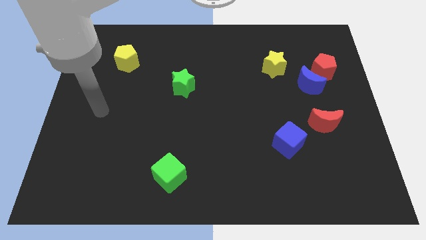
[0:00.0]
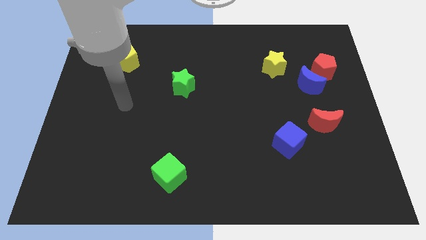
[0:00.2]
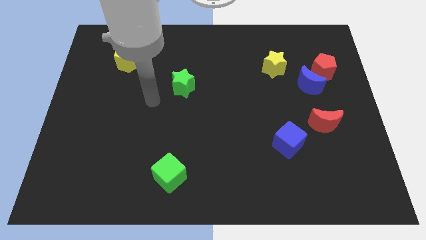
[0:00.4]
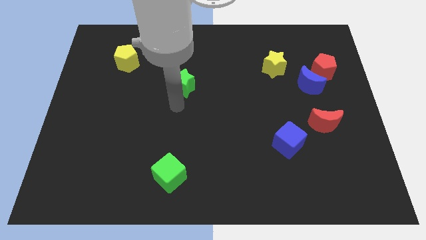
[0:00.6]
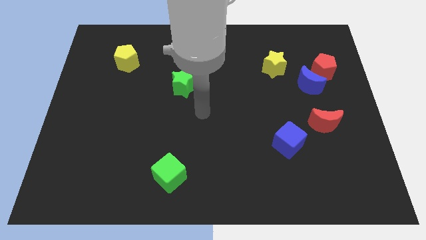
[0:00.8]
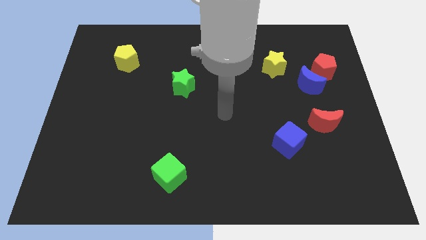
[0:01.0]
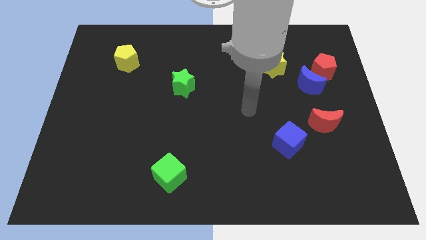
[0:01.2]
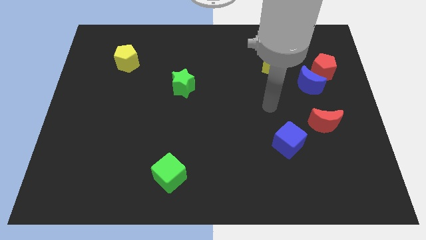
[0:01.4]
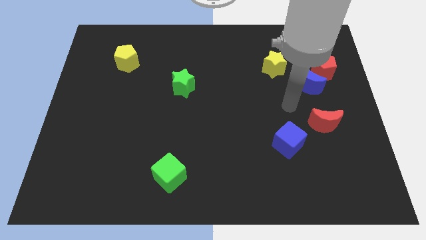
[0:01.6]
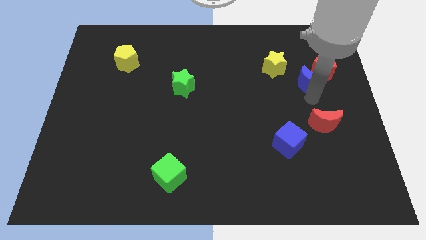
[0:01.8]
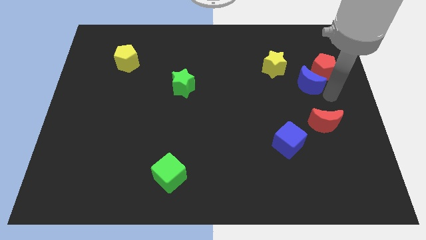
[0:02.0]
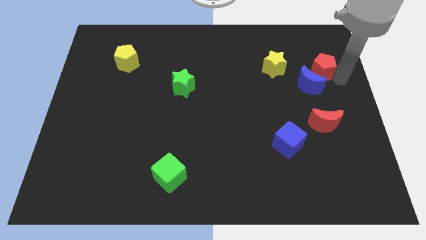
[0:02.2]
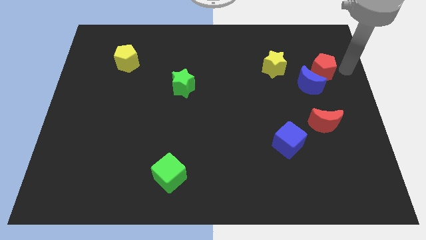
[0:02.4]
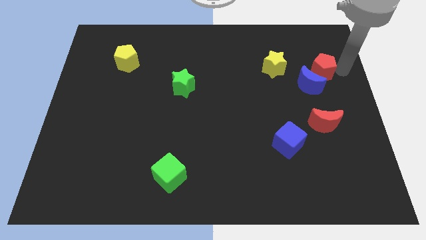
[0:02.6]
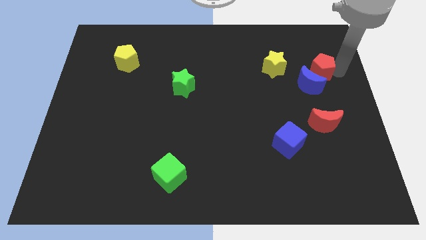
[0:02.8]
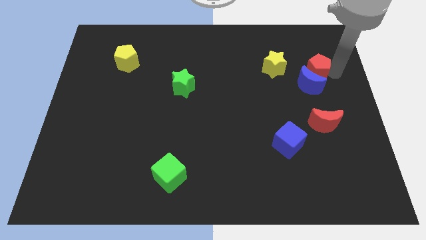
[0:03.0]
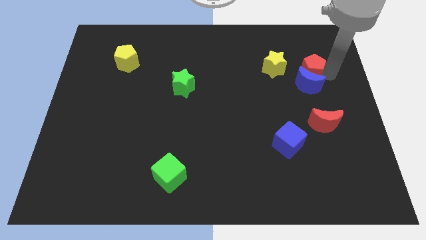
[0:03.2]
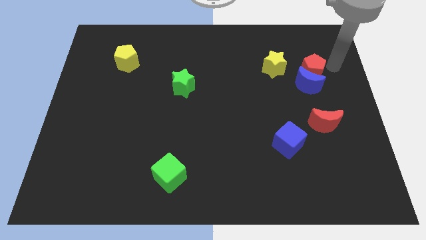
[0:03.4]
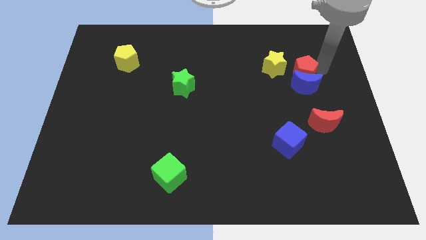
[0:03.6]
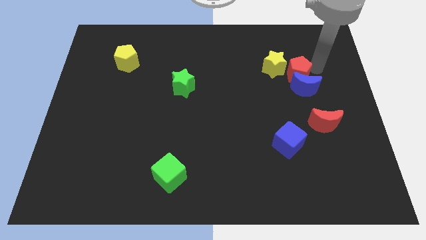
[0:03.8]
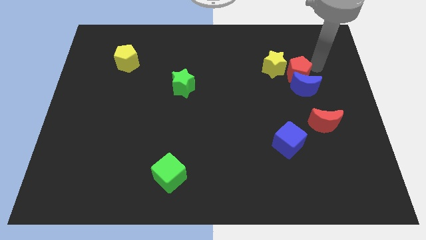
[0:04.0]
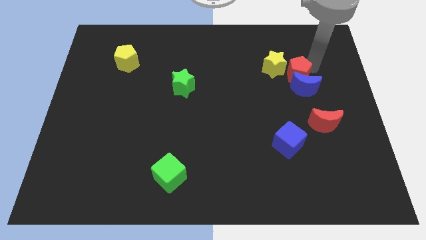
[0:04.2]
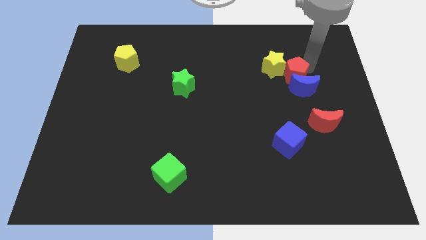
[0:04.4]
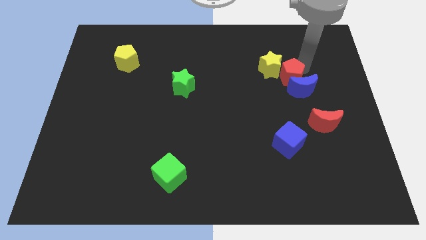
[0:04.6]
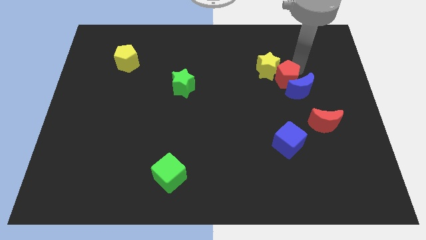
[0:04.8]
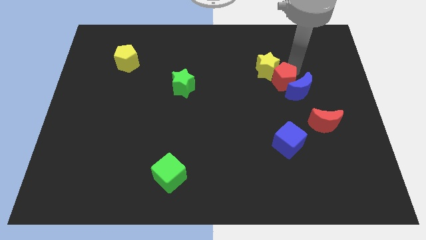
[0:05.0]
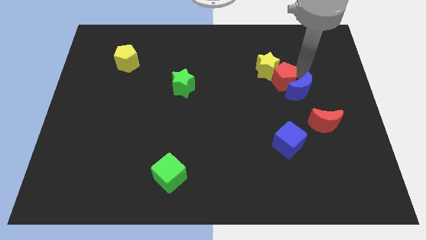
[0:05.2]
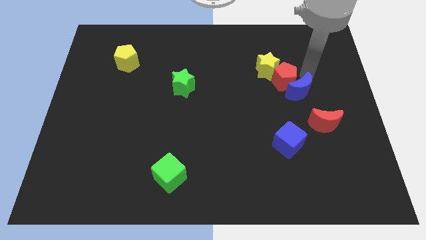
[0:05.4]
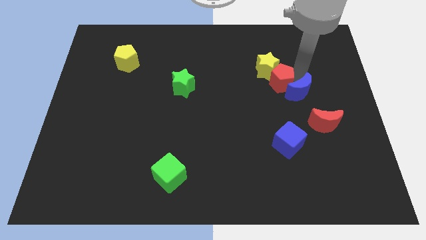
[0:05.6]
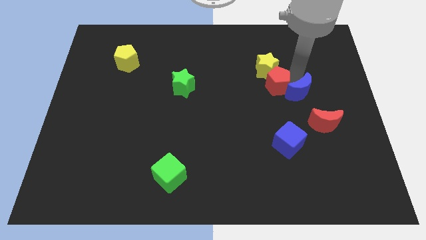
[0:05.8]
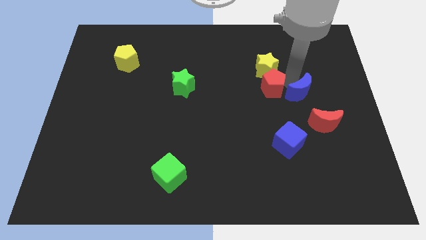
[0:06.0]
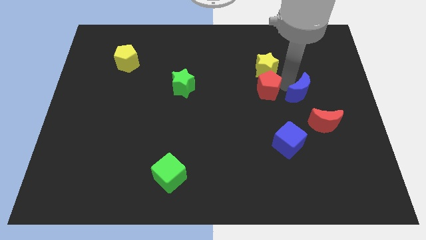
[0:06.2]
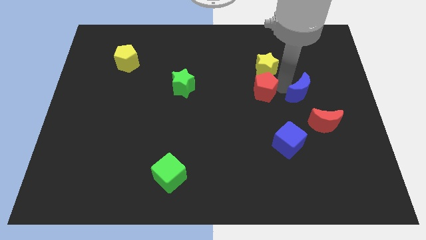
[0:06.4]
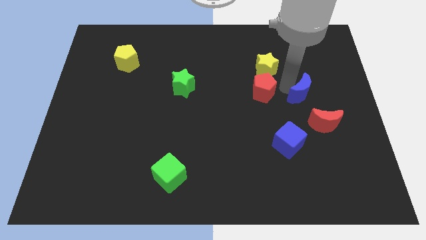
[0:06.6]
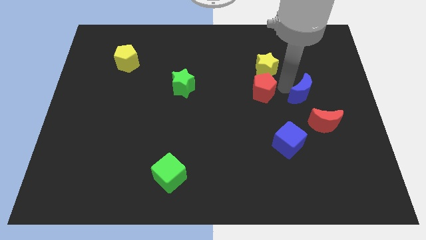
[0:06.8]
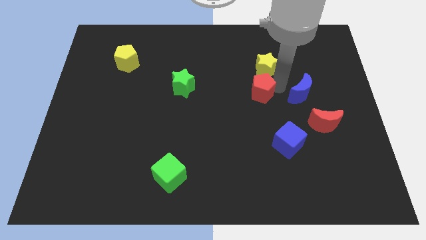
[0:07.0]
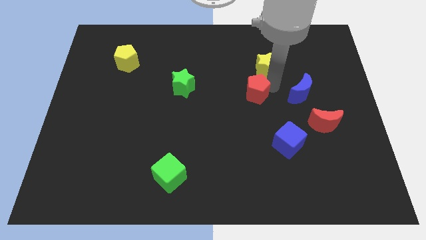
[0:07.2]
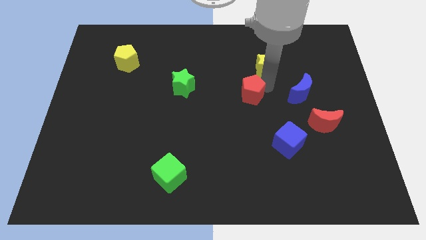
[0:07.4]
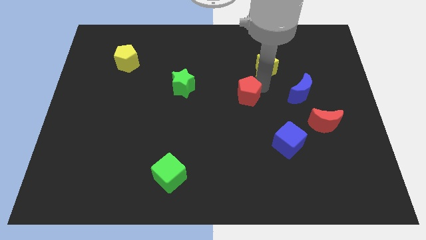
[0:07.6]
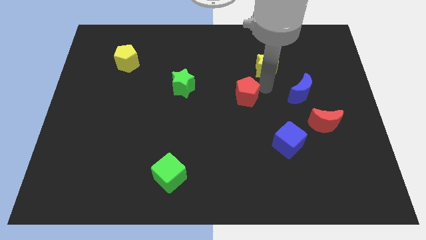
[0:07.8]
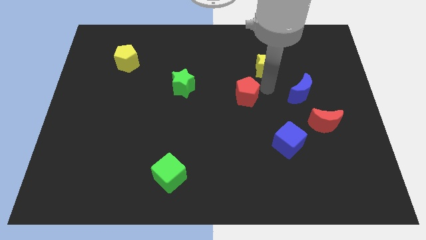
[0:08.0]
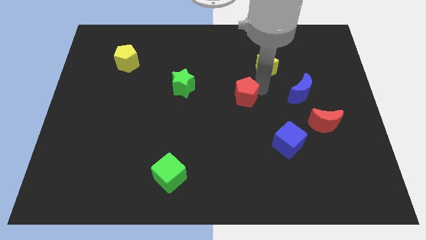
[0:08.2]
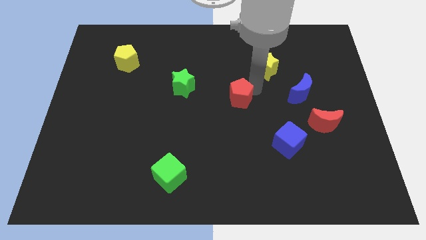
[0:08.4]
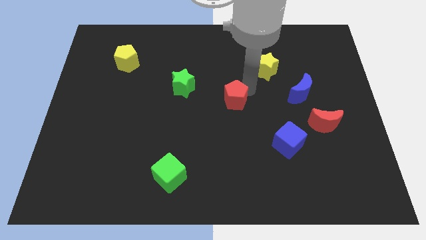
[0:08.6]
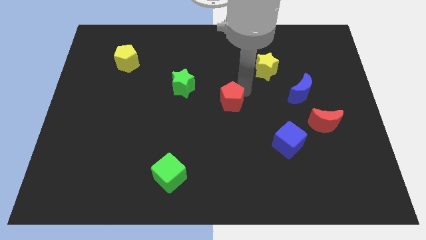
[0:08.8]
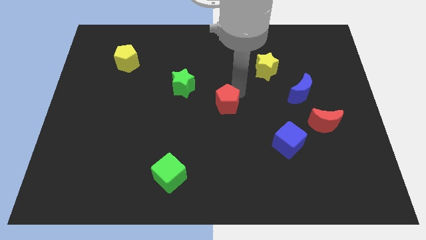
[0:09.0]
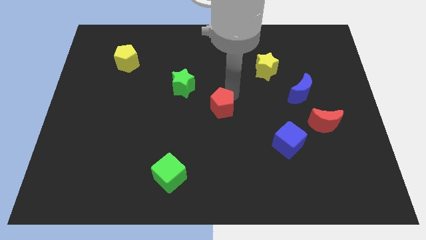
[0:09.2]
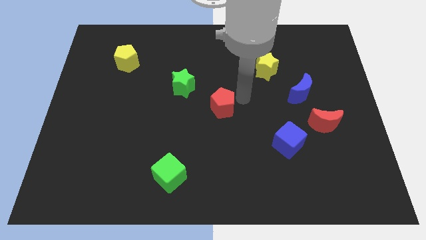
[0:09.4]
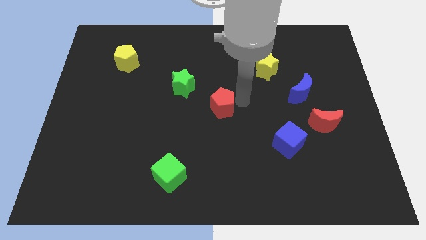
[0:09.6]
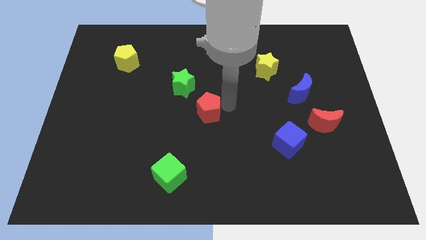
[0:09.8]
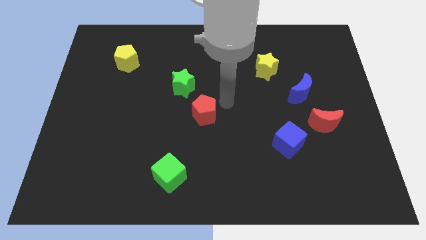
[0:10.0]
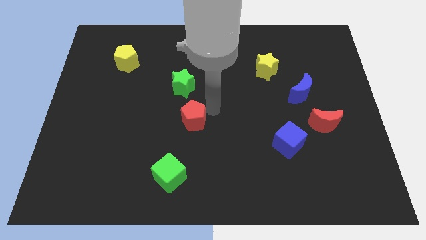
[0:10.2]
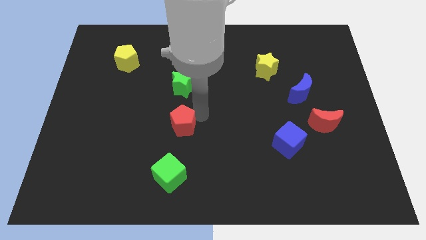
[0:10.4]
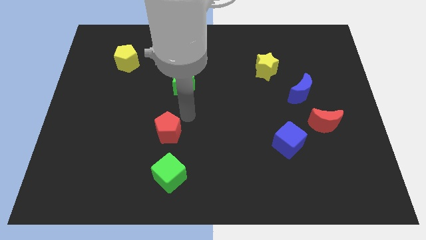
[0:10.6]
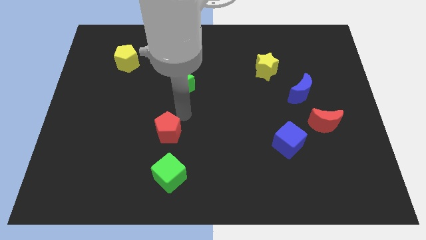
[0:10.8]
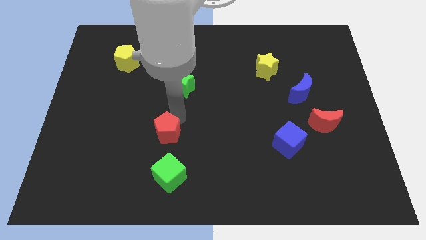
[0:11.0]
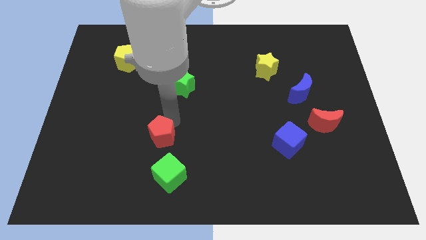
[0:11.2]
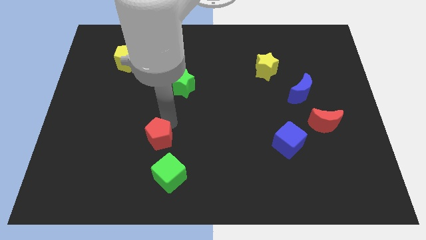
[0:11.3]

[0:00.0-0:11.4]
move the red pentagon to the top left of the green cube

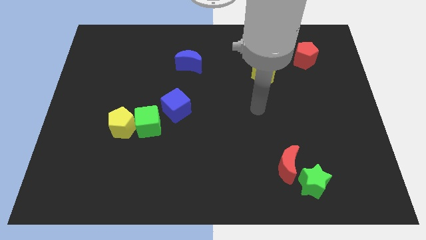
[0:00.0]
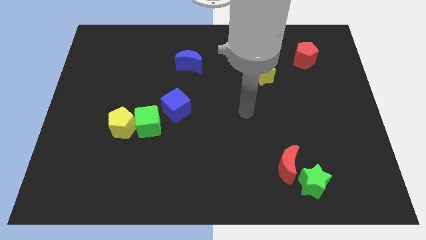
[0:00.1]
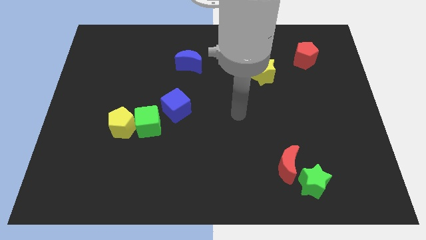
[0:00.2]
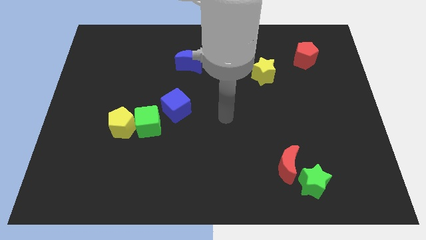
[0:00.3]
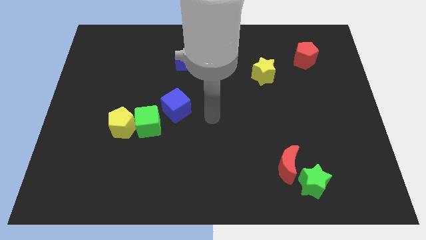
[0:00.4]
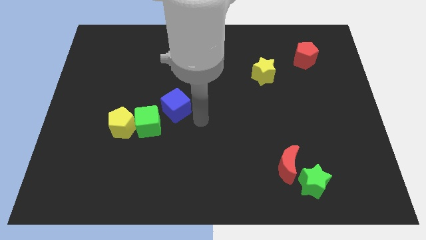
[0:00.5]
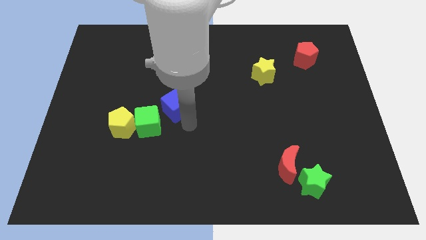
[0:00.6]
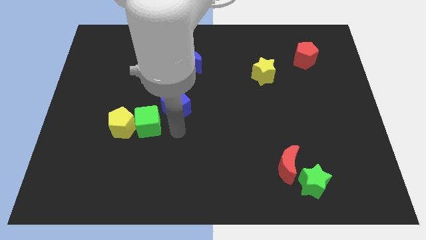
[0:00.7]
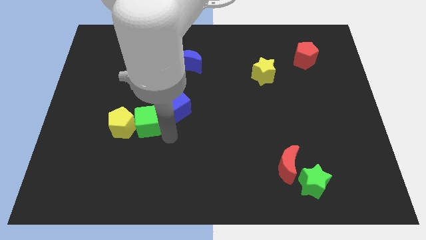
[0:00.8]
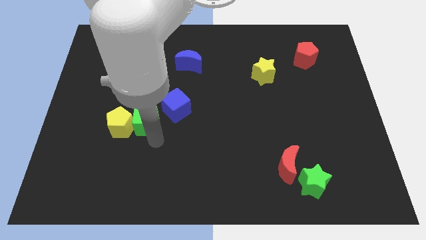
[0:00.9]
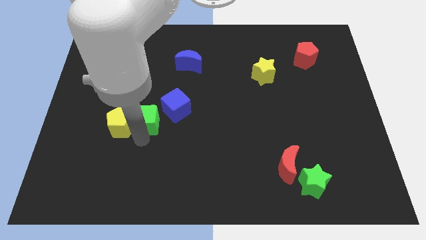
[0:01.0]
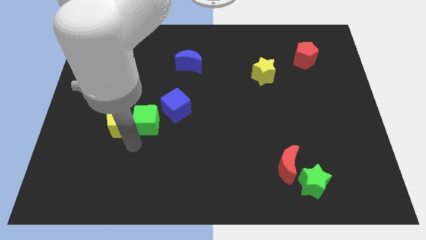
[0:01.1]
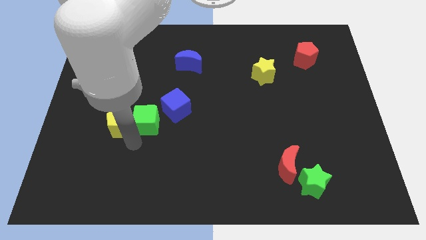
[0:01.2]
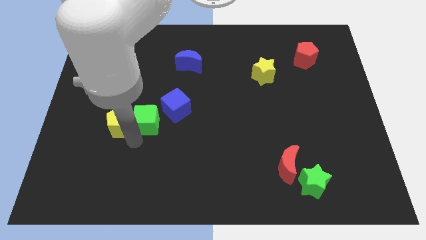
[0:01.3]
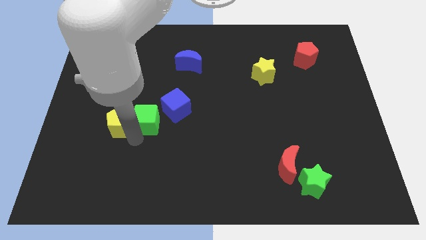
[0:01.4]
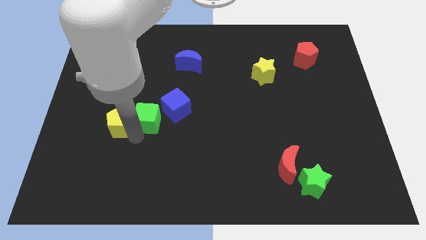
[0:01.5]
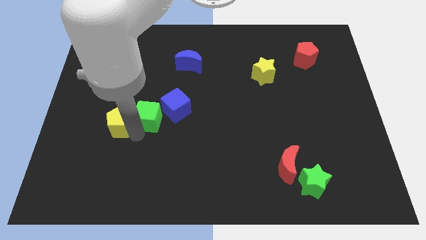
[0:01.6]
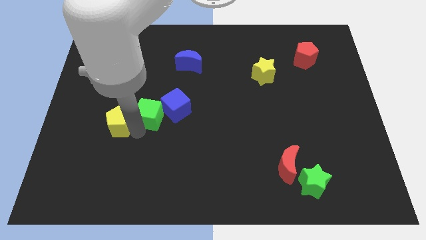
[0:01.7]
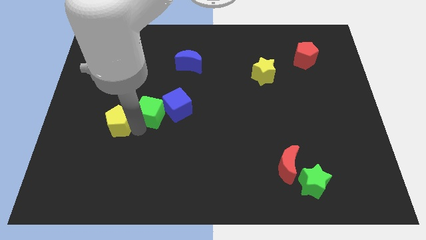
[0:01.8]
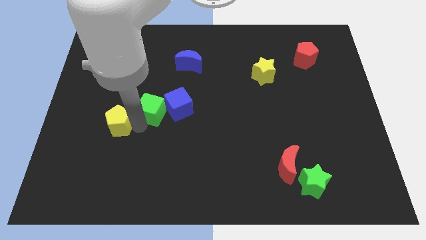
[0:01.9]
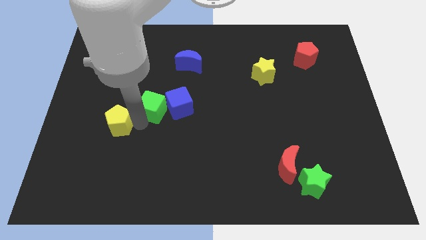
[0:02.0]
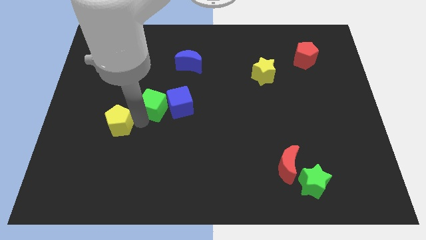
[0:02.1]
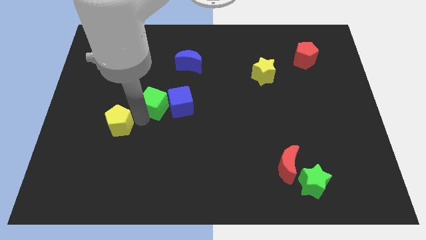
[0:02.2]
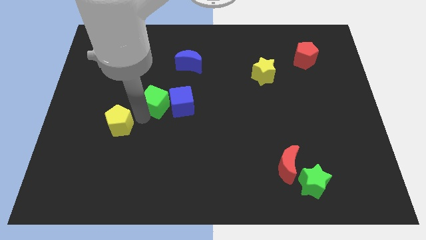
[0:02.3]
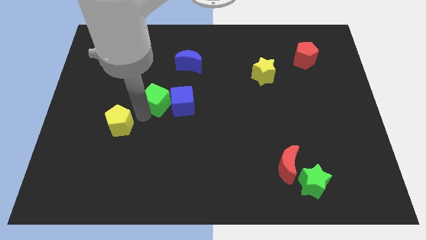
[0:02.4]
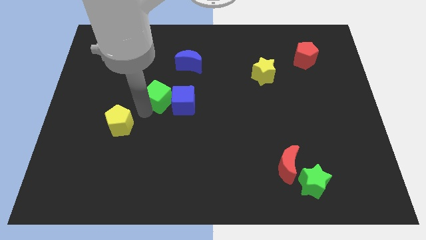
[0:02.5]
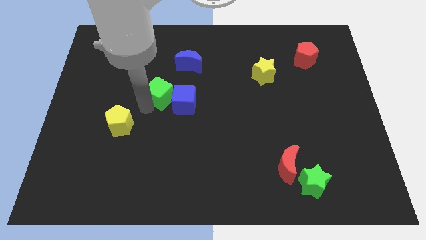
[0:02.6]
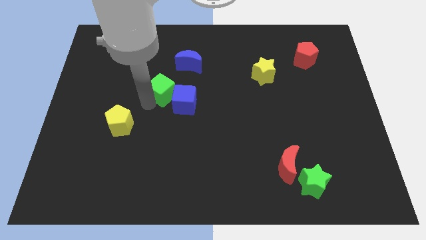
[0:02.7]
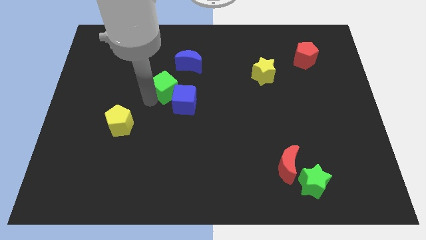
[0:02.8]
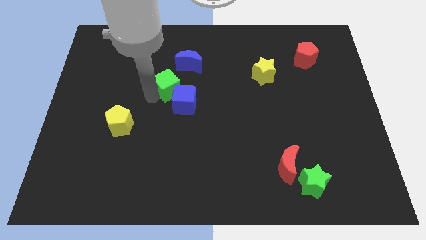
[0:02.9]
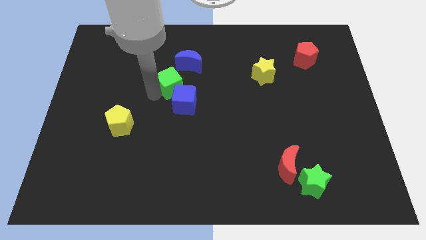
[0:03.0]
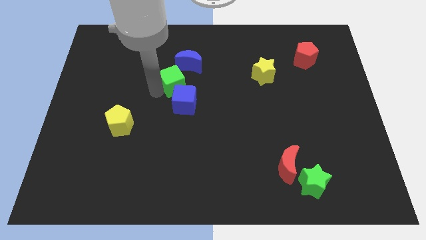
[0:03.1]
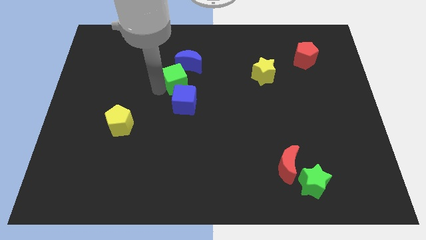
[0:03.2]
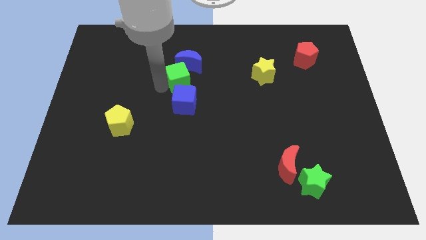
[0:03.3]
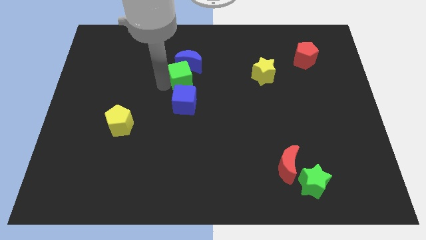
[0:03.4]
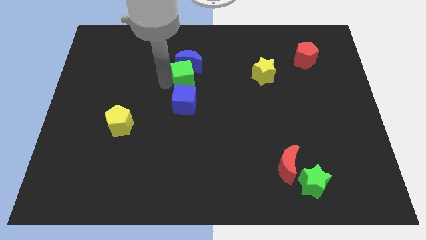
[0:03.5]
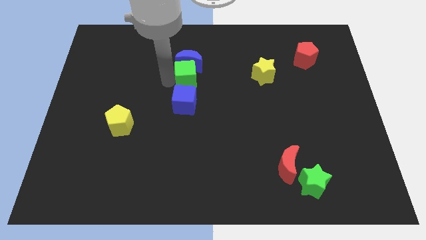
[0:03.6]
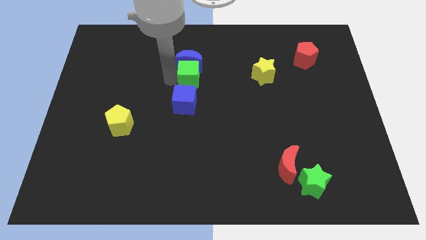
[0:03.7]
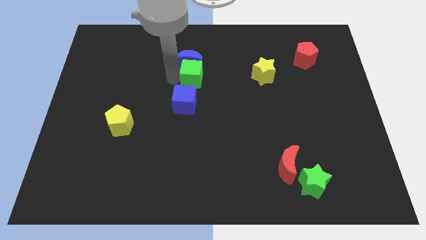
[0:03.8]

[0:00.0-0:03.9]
slide the green cube to the top right of the blue cube
